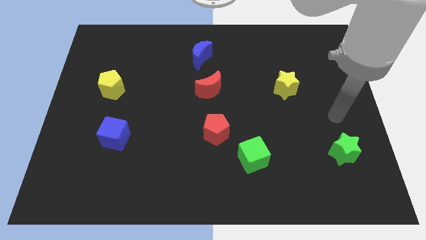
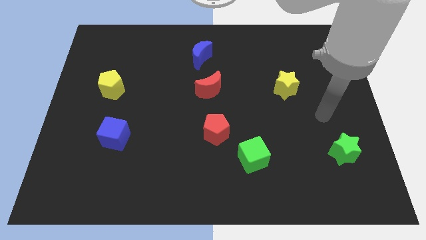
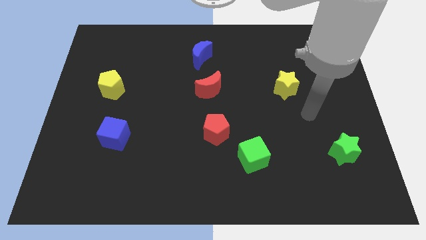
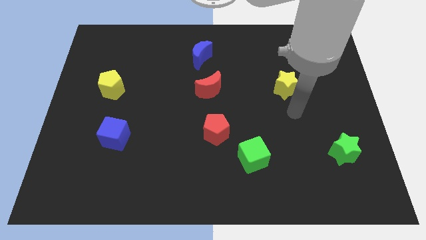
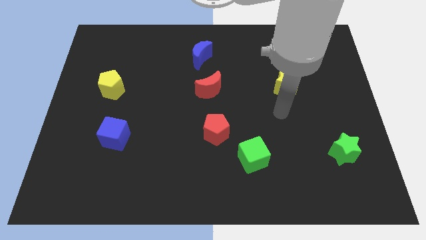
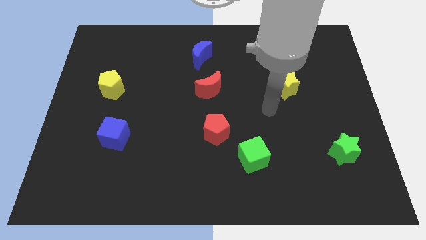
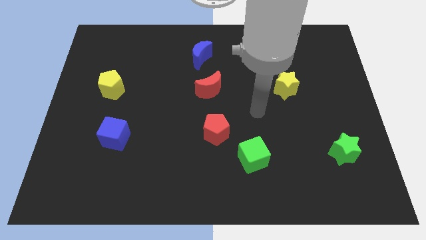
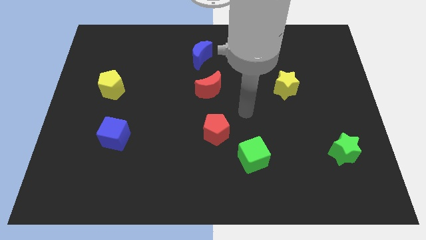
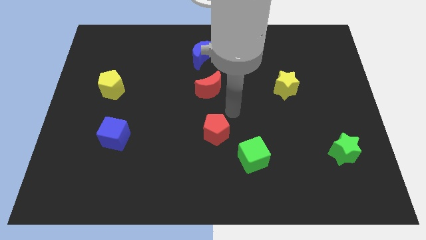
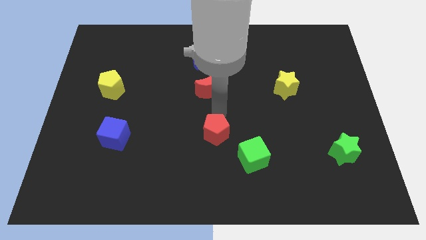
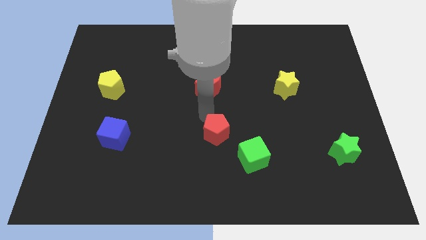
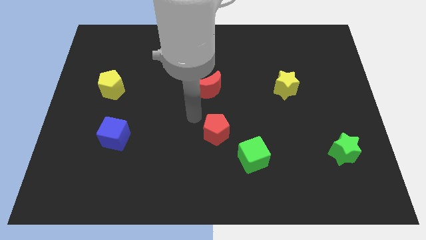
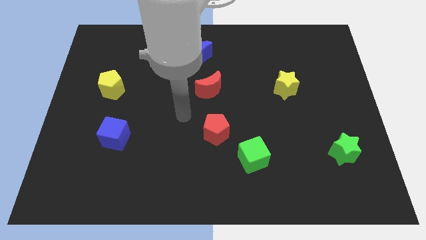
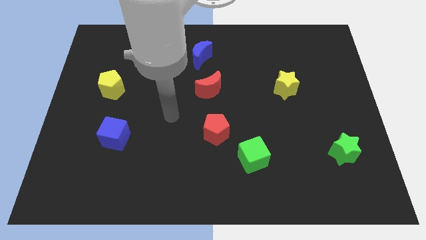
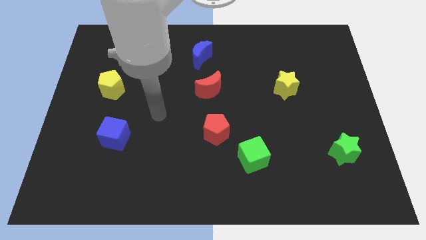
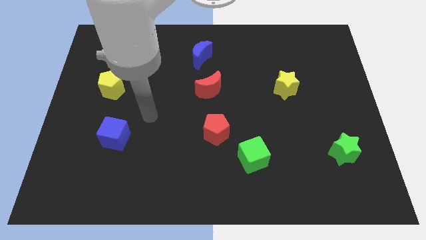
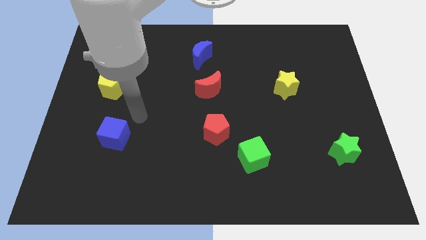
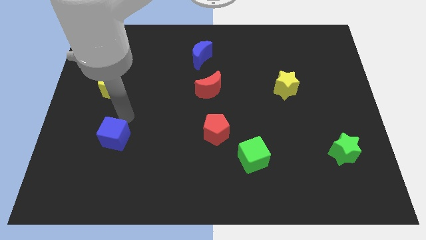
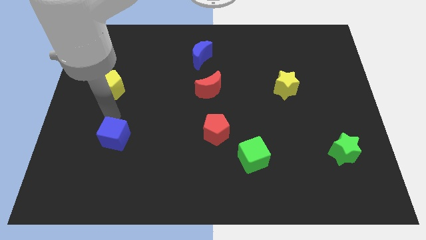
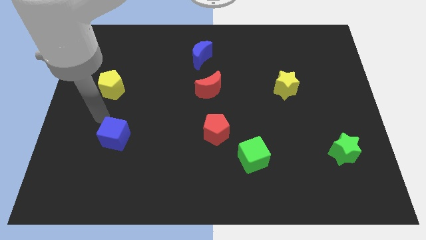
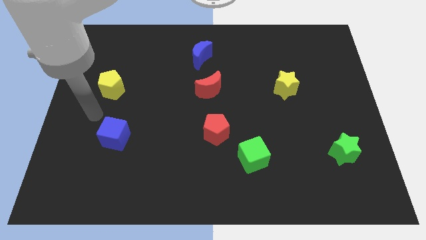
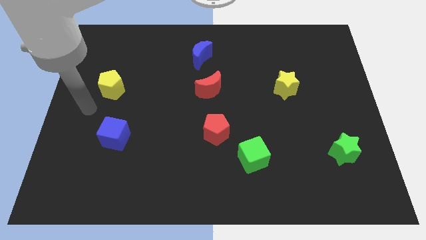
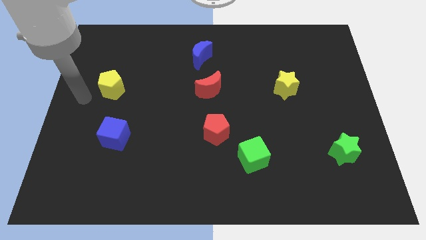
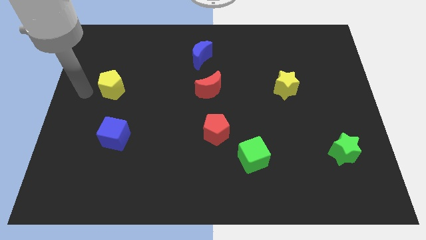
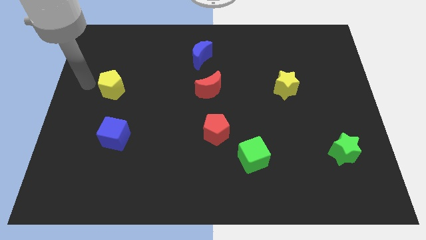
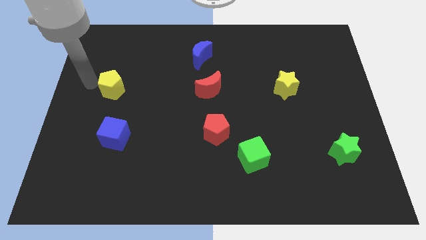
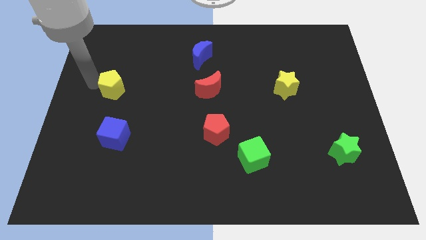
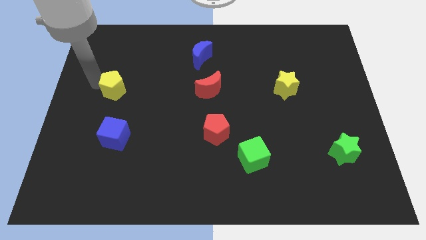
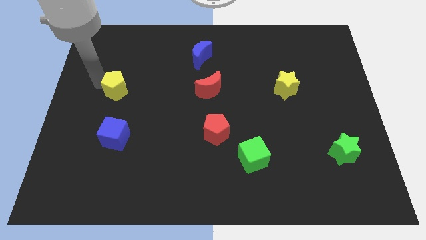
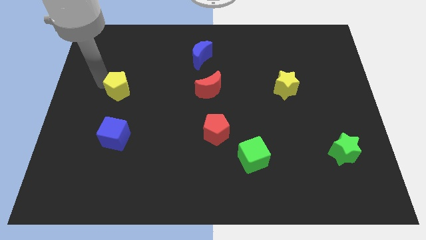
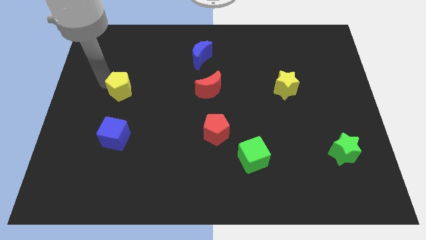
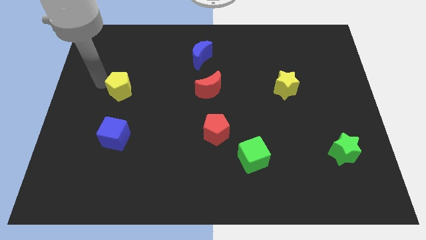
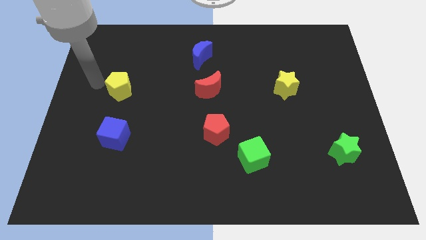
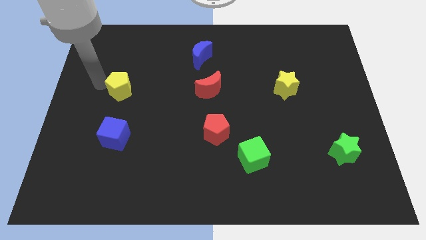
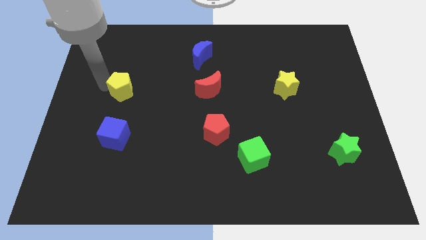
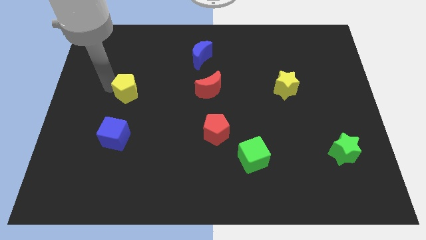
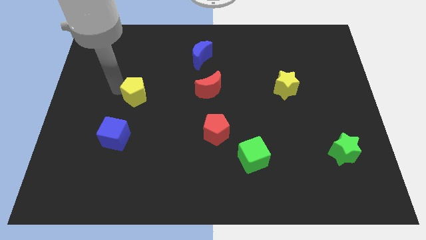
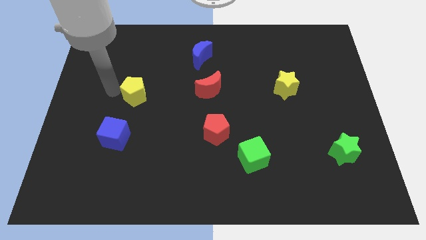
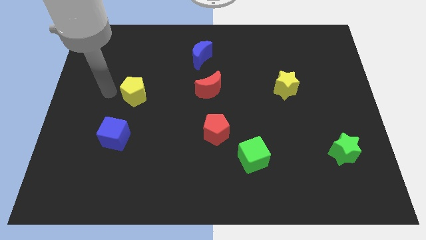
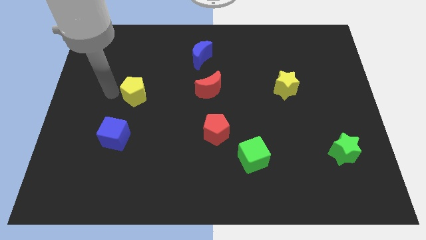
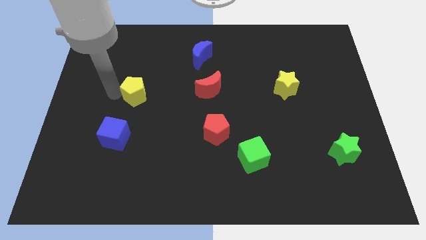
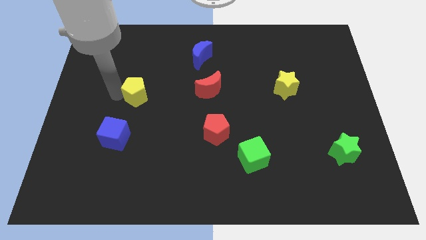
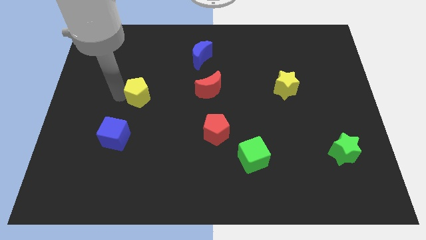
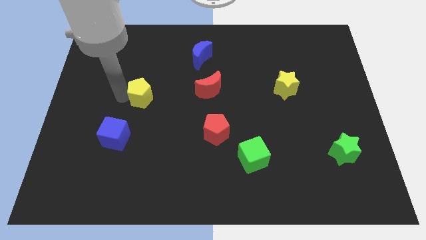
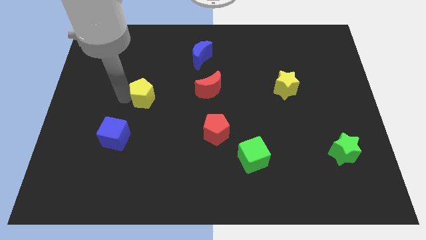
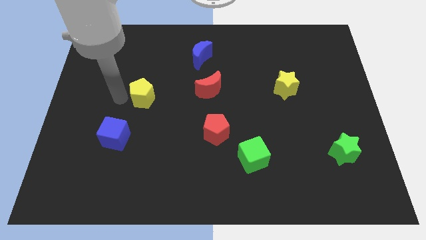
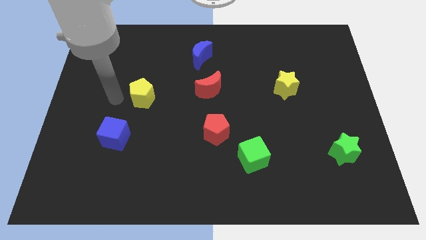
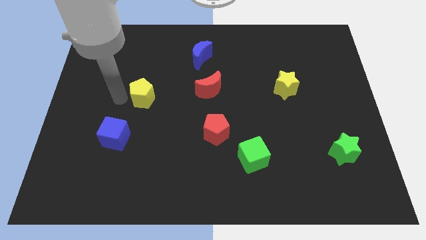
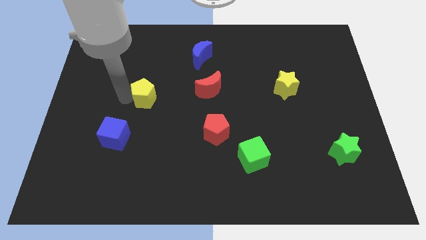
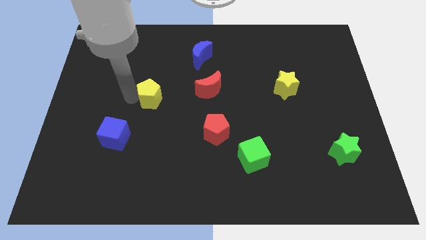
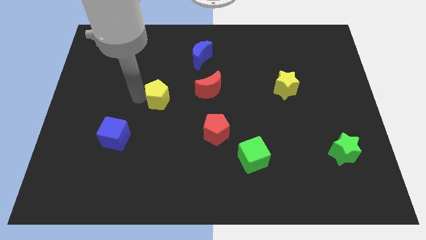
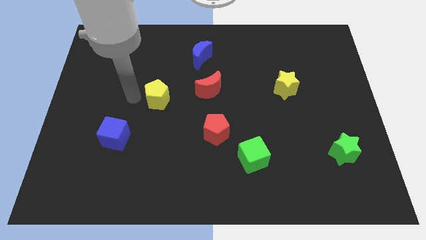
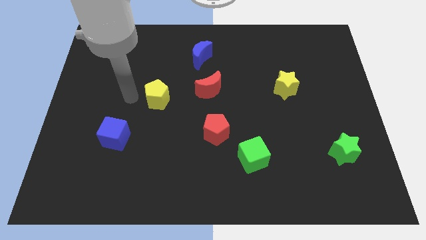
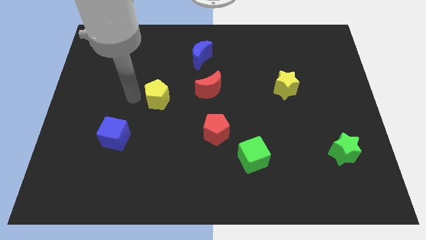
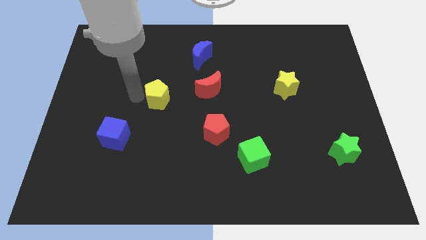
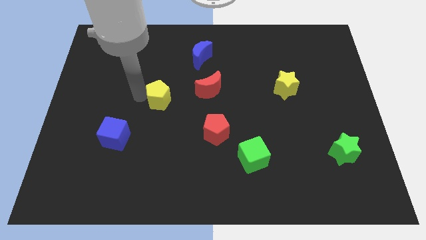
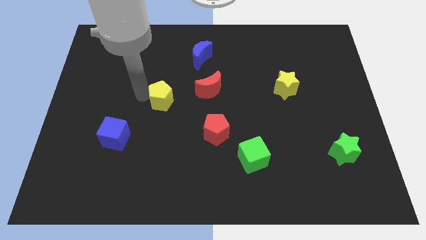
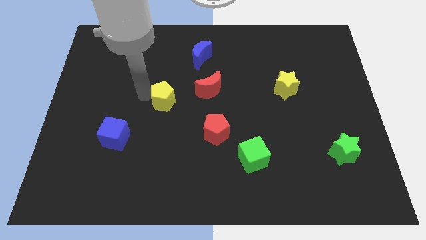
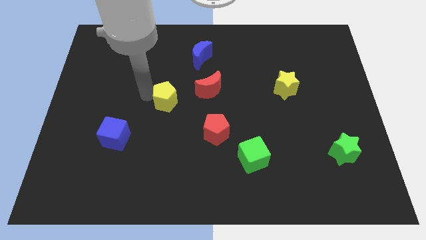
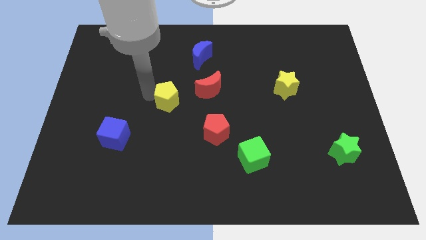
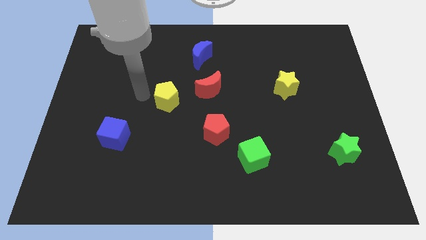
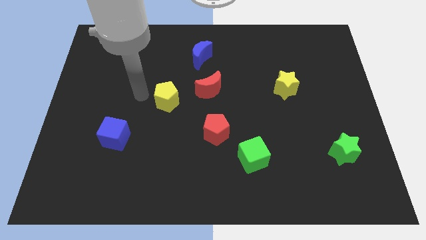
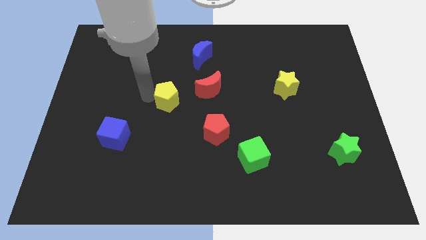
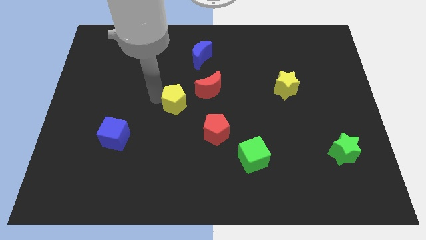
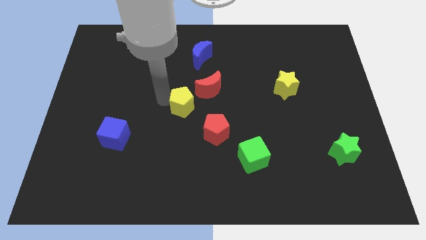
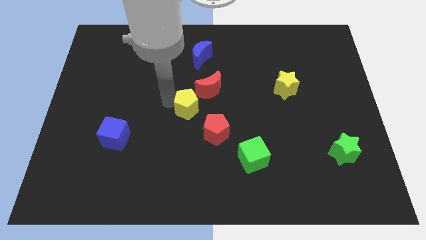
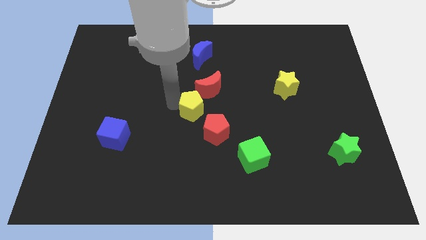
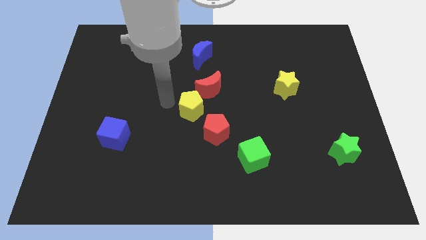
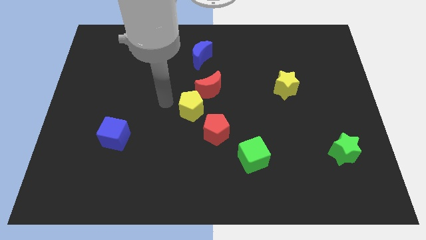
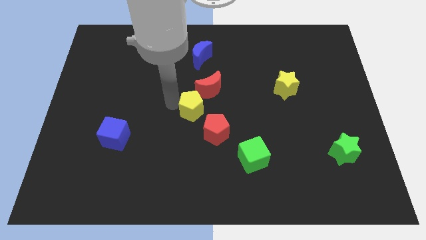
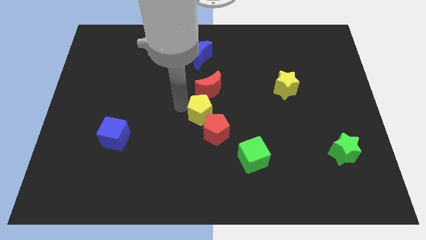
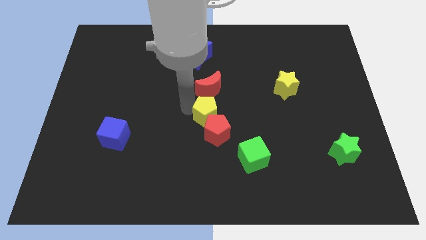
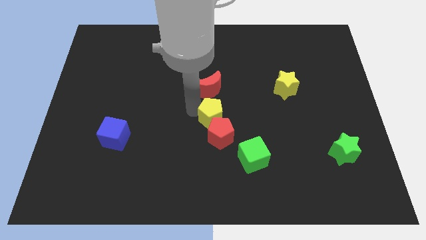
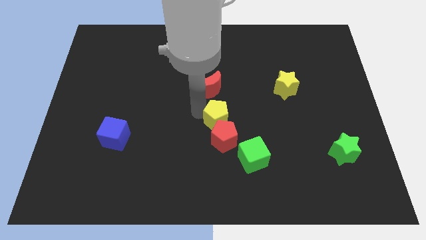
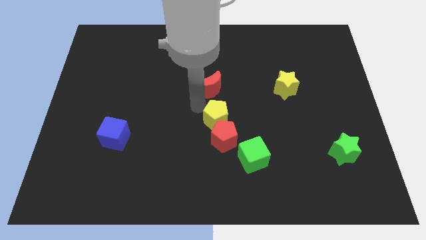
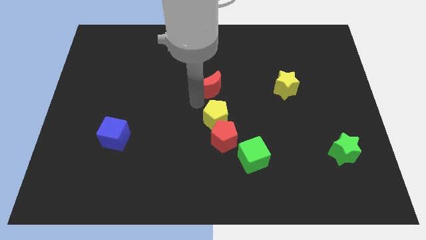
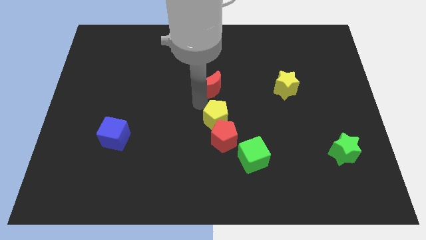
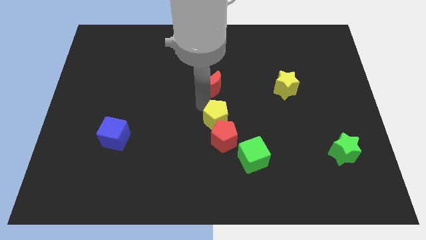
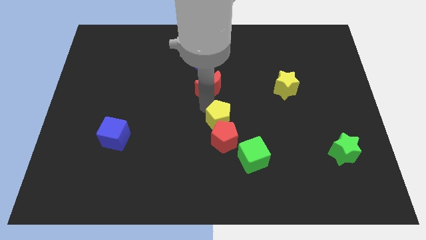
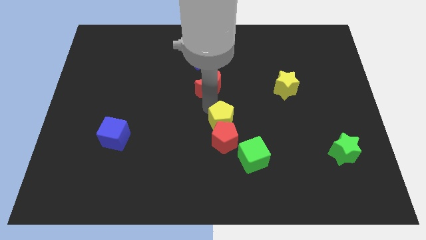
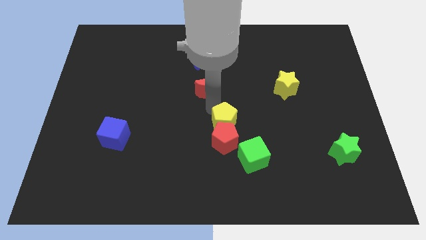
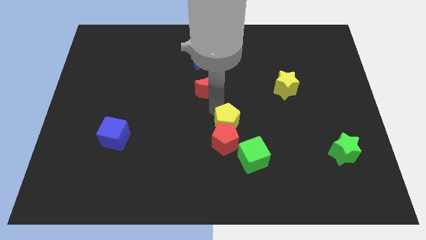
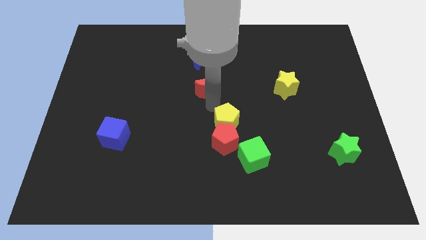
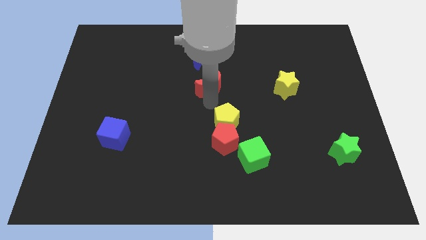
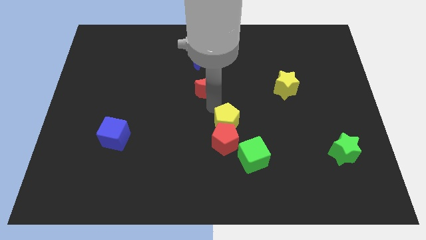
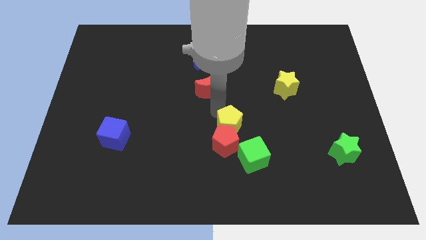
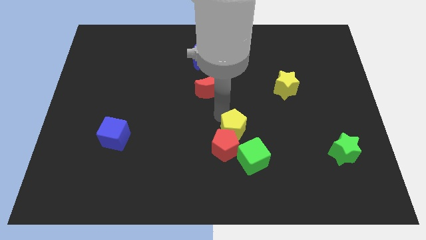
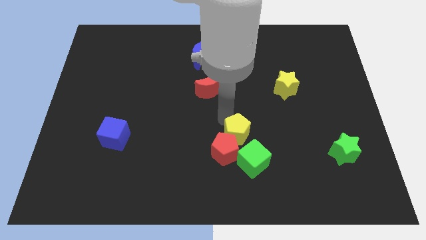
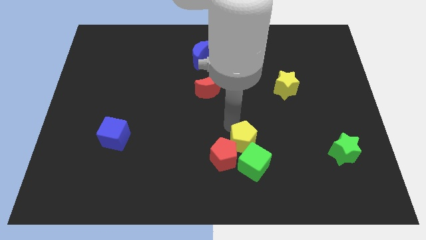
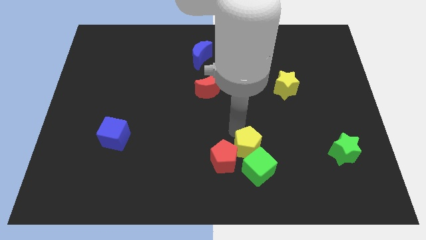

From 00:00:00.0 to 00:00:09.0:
push the yellow pentagon close to the green cube
